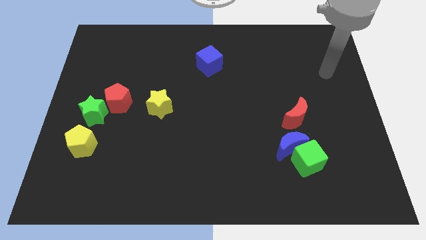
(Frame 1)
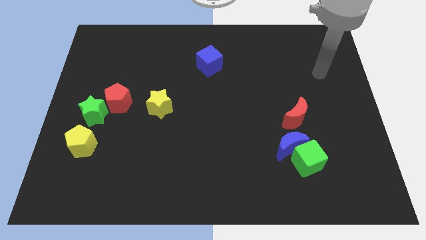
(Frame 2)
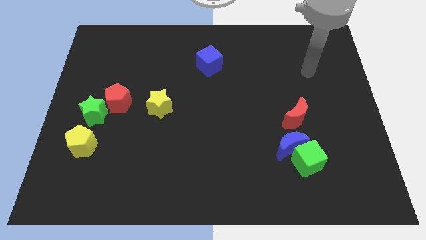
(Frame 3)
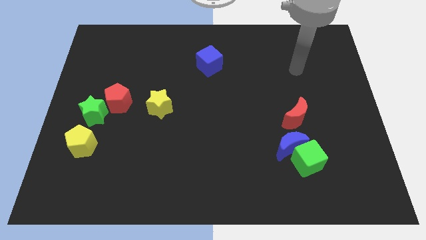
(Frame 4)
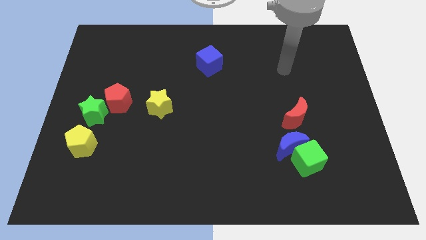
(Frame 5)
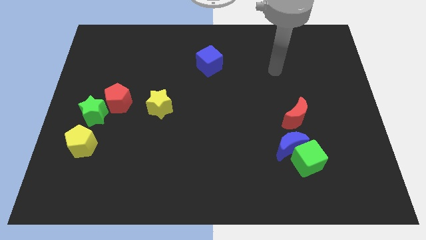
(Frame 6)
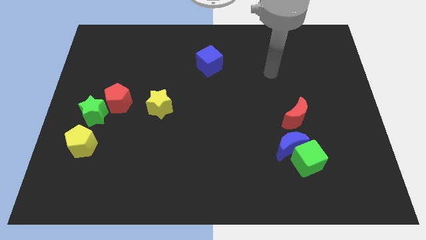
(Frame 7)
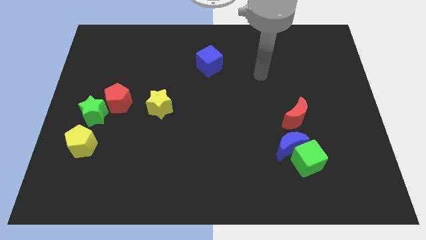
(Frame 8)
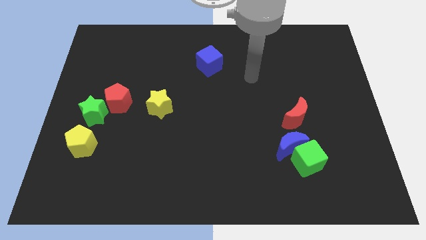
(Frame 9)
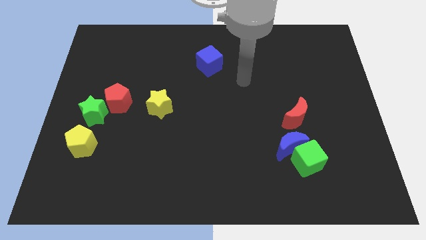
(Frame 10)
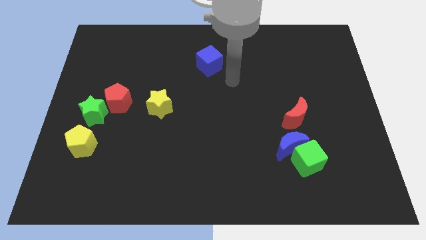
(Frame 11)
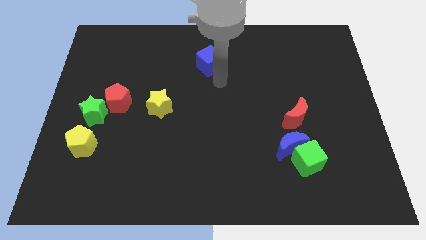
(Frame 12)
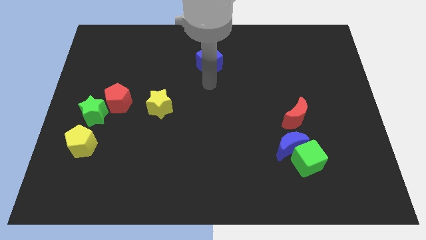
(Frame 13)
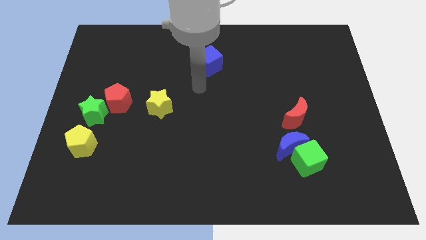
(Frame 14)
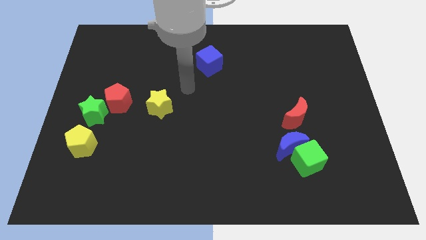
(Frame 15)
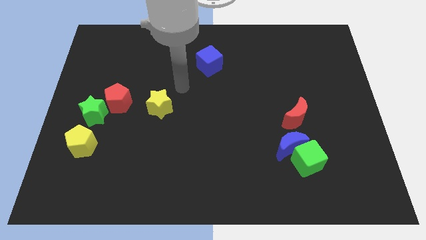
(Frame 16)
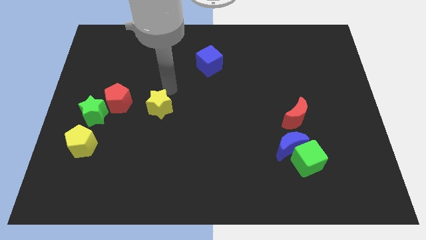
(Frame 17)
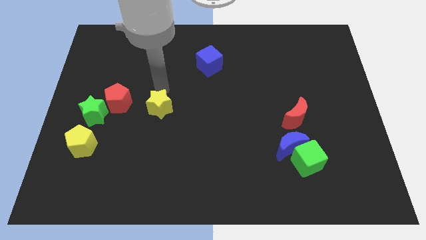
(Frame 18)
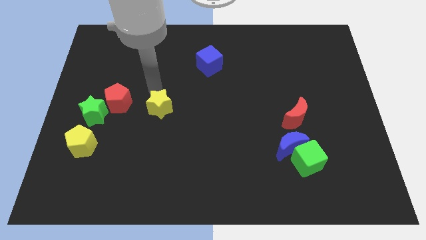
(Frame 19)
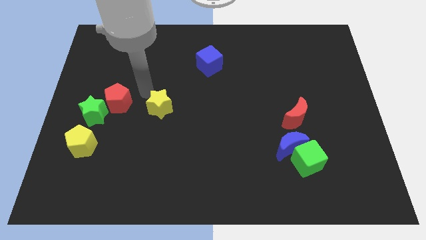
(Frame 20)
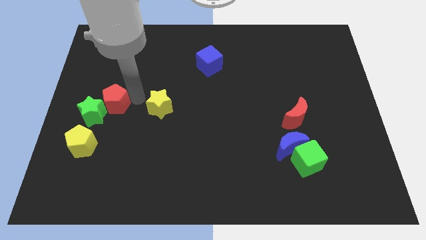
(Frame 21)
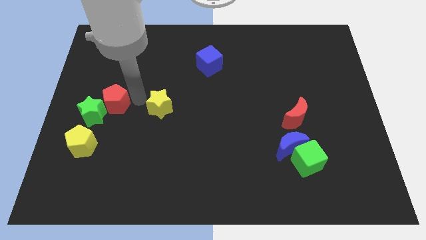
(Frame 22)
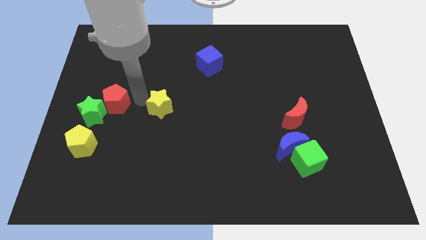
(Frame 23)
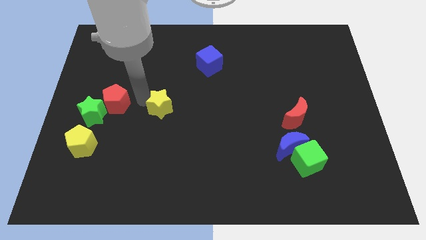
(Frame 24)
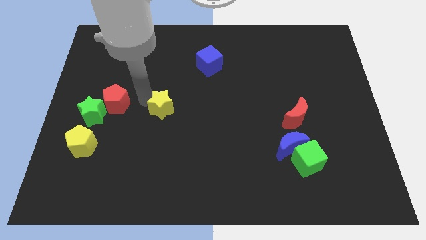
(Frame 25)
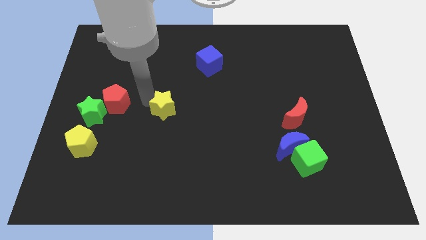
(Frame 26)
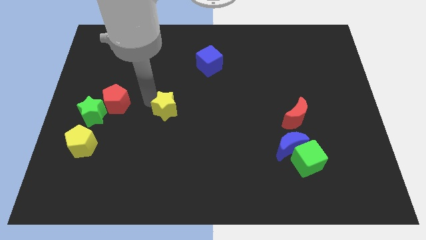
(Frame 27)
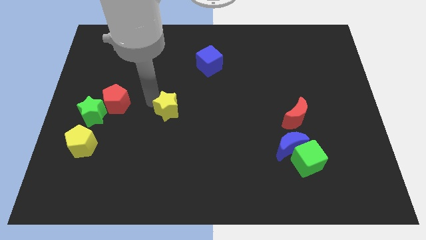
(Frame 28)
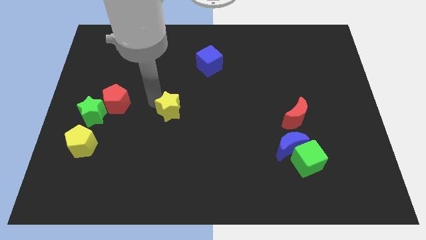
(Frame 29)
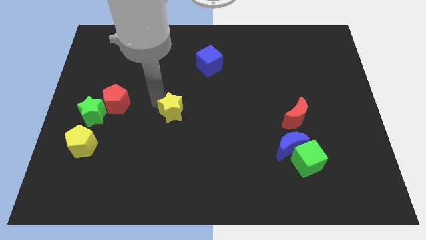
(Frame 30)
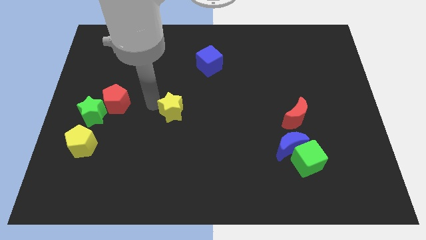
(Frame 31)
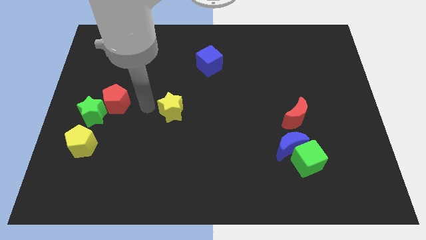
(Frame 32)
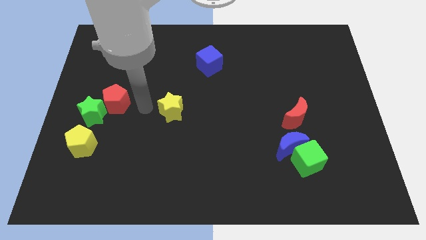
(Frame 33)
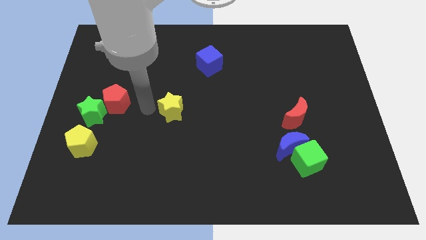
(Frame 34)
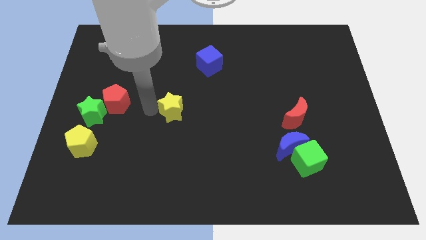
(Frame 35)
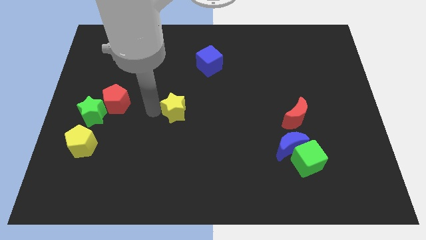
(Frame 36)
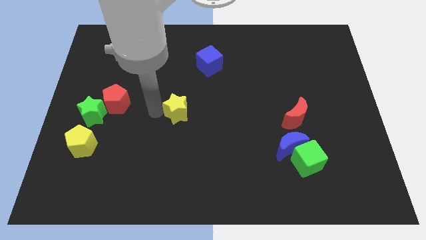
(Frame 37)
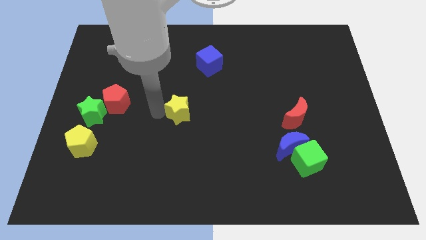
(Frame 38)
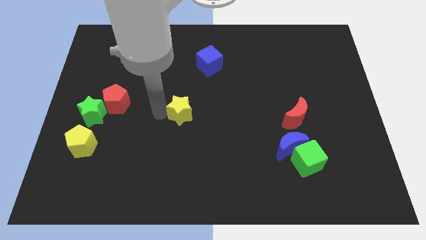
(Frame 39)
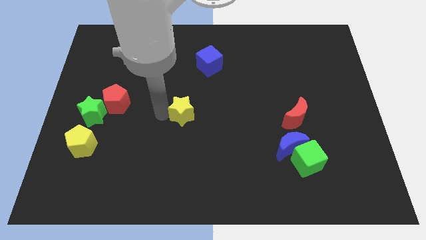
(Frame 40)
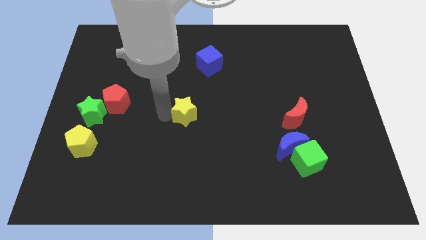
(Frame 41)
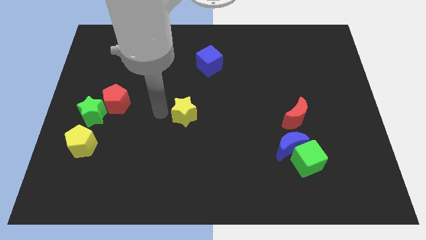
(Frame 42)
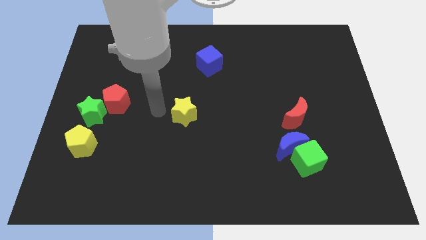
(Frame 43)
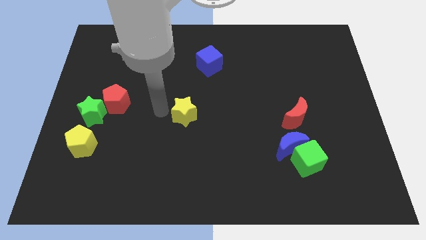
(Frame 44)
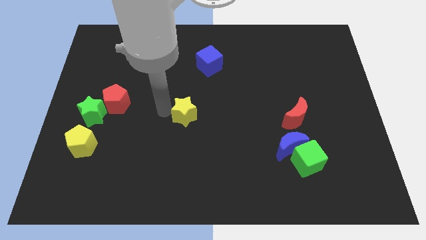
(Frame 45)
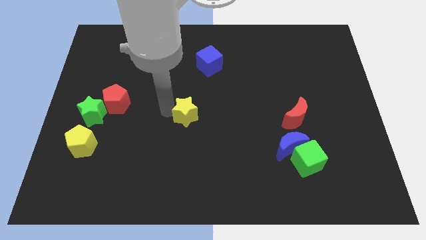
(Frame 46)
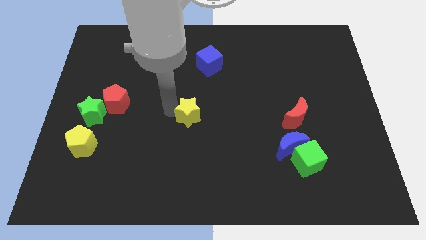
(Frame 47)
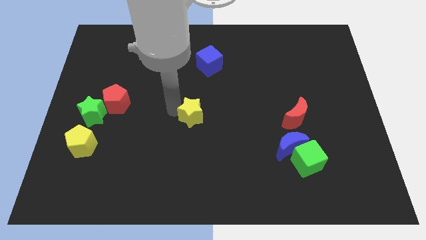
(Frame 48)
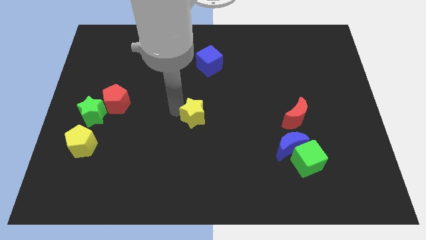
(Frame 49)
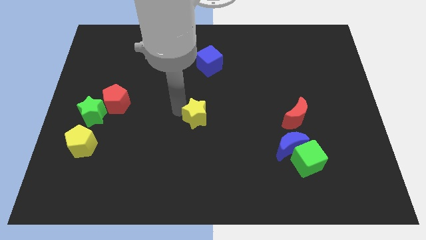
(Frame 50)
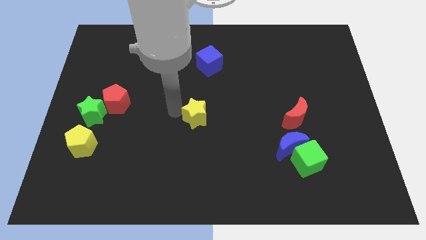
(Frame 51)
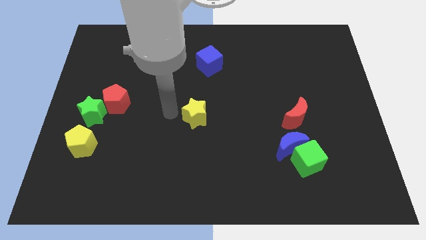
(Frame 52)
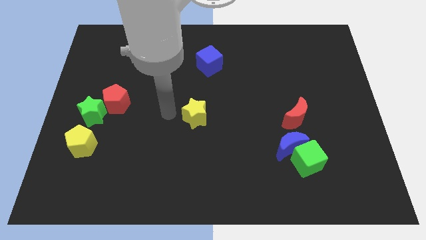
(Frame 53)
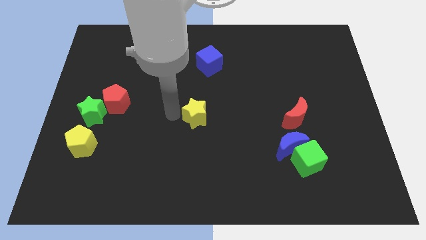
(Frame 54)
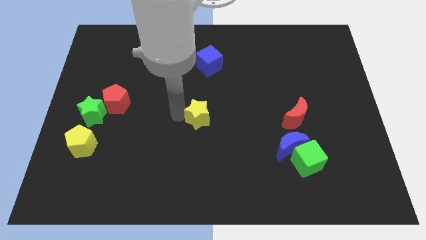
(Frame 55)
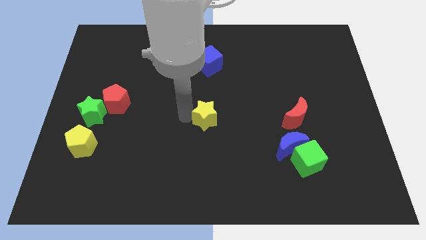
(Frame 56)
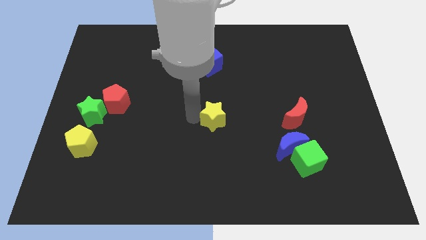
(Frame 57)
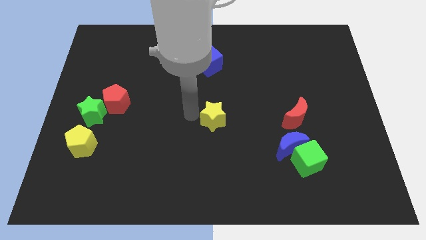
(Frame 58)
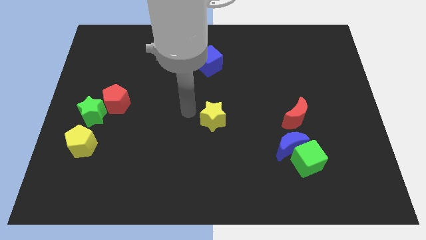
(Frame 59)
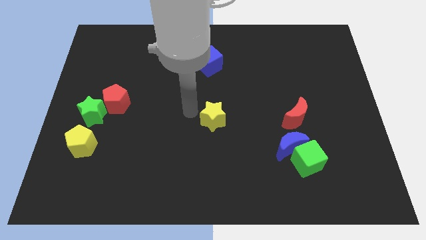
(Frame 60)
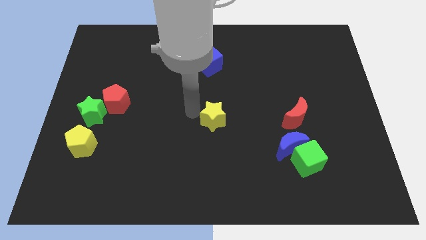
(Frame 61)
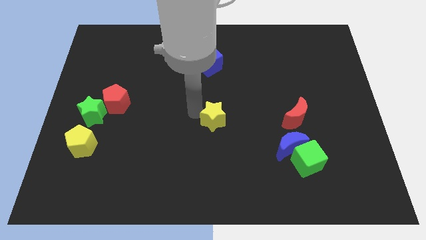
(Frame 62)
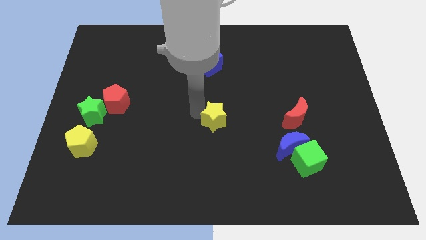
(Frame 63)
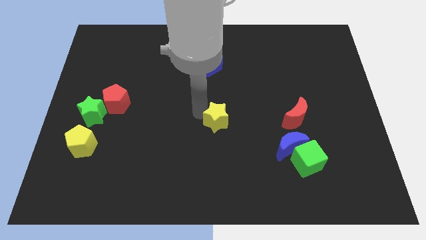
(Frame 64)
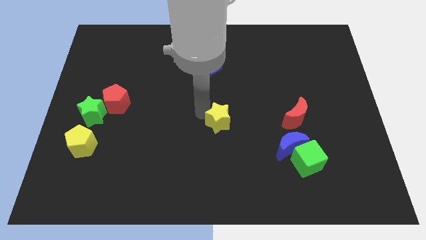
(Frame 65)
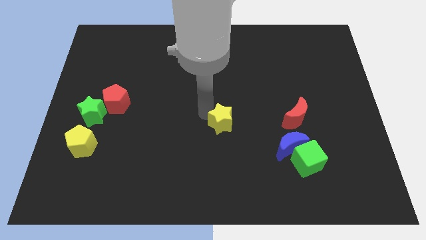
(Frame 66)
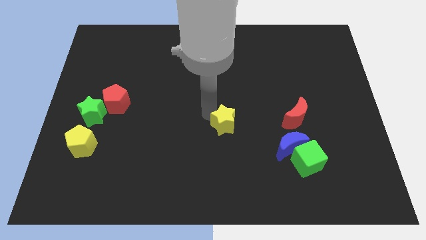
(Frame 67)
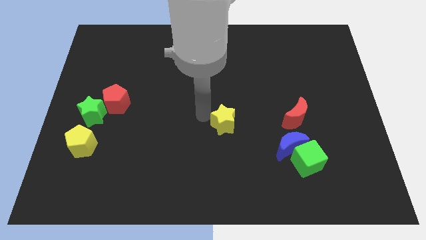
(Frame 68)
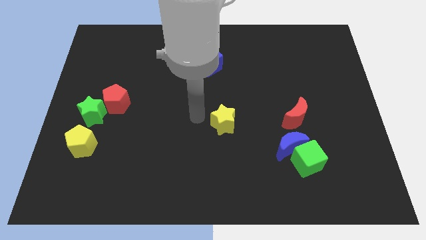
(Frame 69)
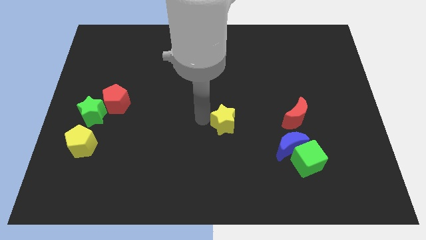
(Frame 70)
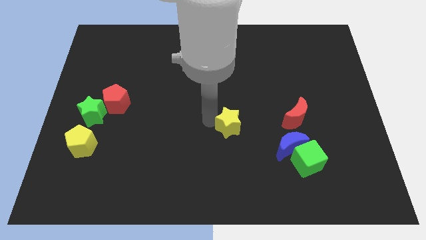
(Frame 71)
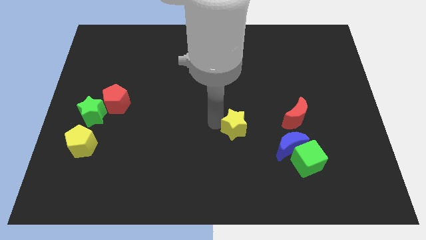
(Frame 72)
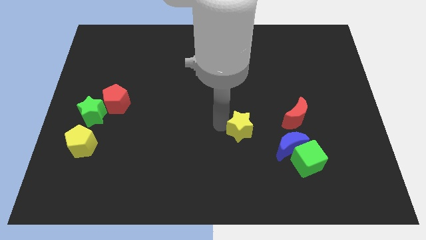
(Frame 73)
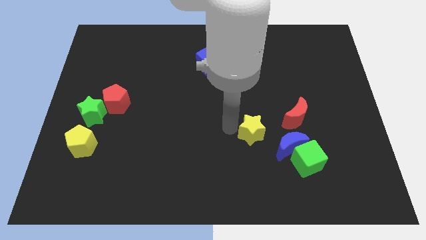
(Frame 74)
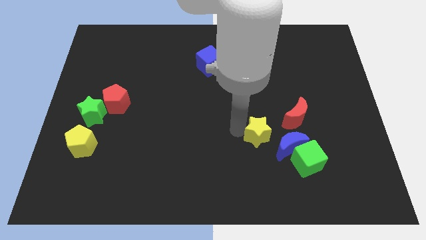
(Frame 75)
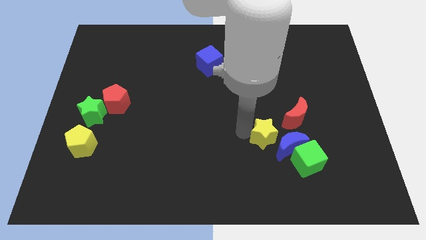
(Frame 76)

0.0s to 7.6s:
move the yellow star next to the blue moon

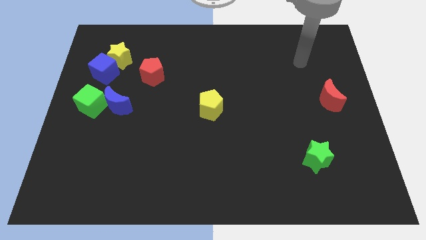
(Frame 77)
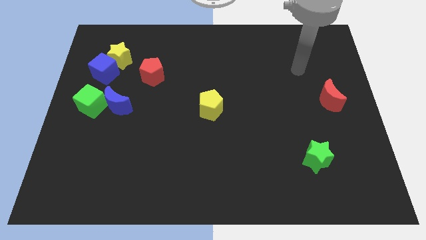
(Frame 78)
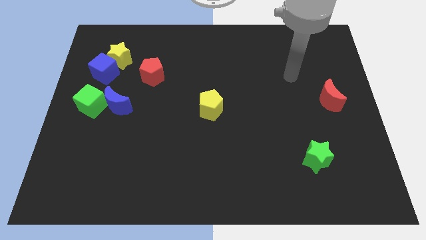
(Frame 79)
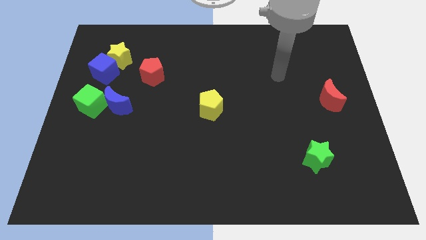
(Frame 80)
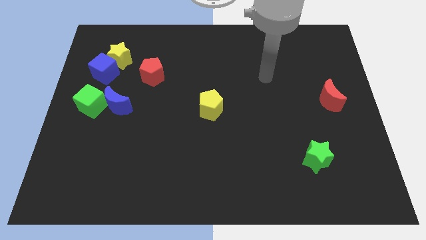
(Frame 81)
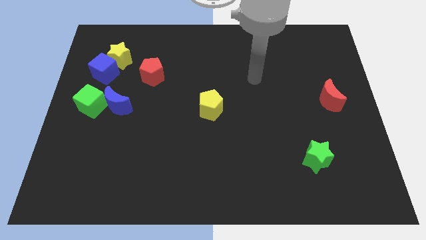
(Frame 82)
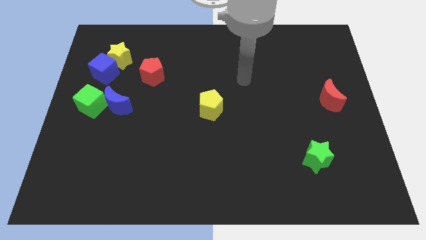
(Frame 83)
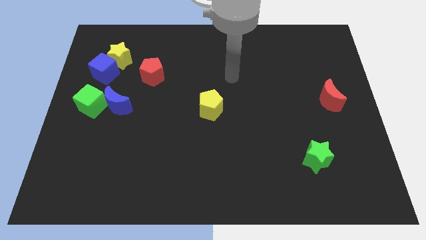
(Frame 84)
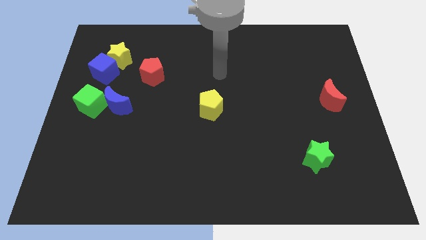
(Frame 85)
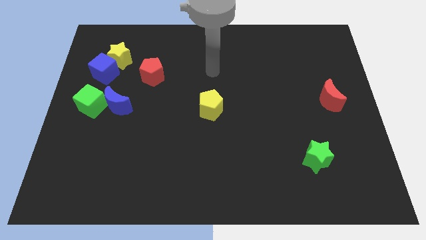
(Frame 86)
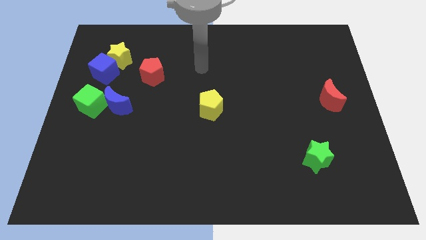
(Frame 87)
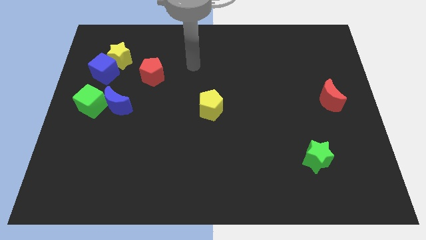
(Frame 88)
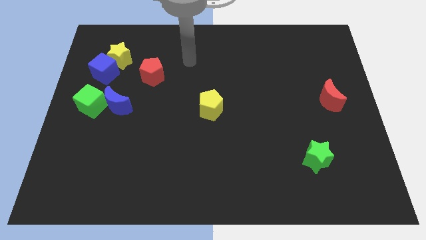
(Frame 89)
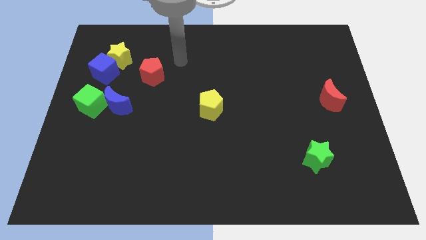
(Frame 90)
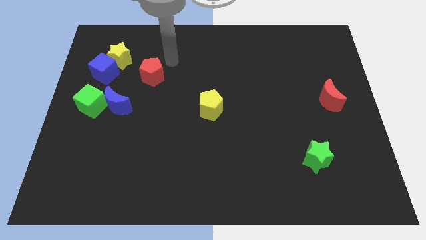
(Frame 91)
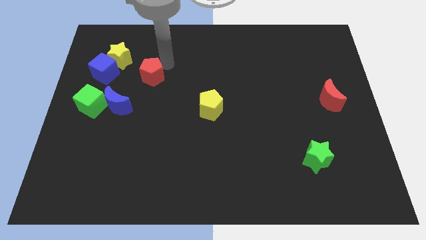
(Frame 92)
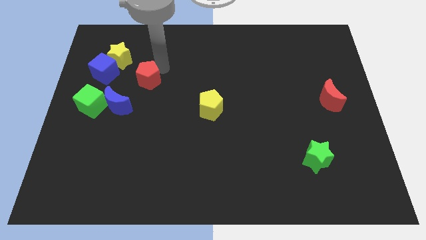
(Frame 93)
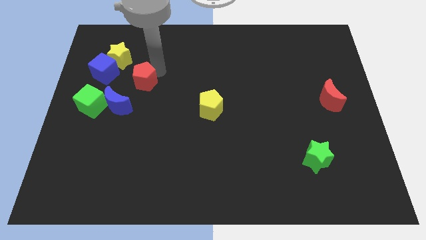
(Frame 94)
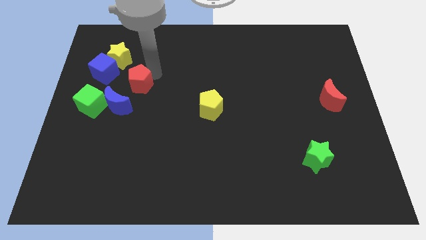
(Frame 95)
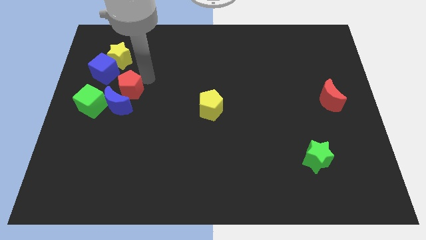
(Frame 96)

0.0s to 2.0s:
slide the red pentagon close to the blue moon
